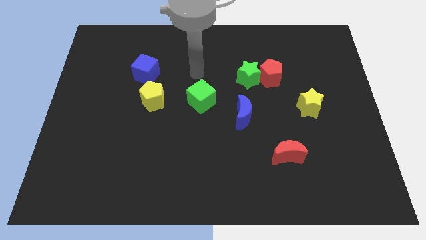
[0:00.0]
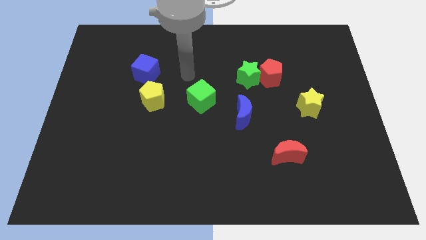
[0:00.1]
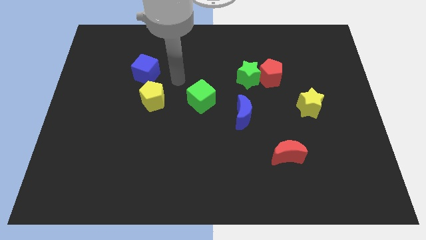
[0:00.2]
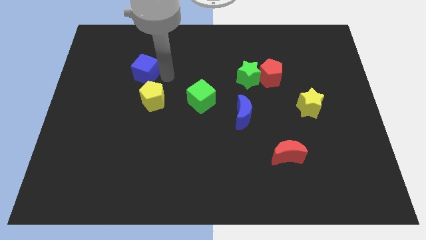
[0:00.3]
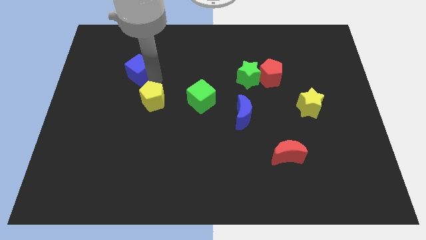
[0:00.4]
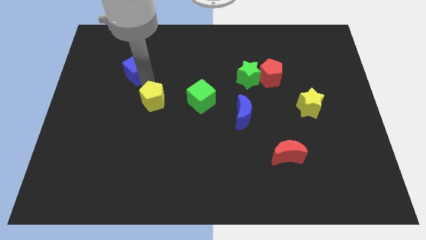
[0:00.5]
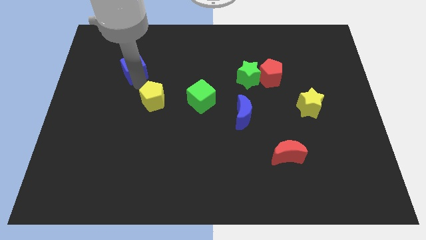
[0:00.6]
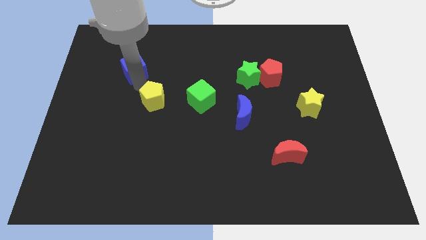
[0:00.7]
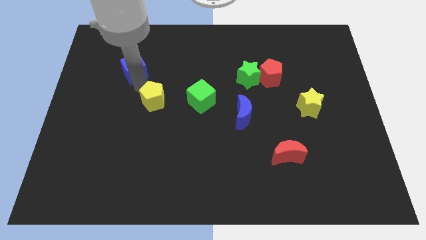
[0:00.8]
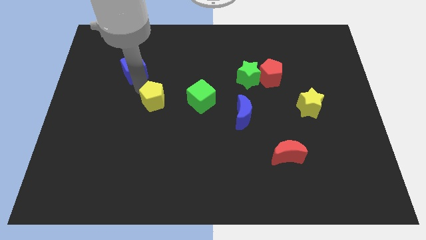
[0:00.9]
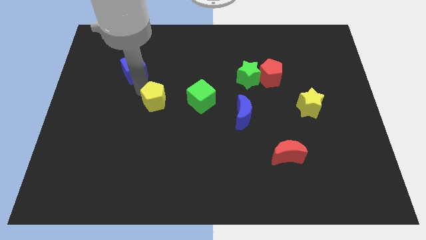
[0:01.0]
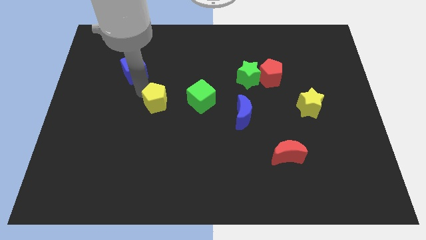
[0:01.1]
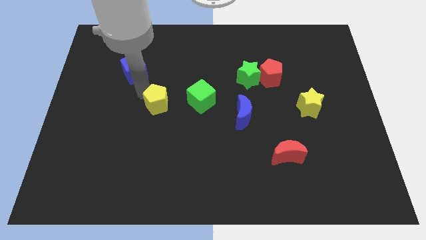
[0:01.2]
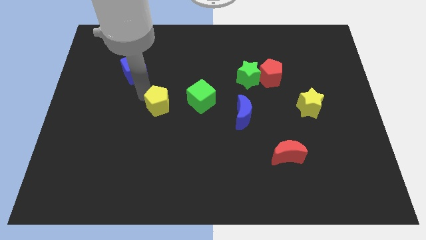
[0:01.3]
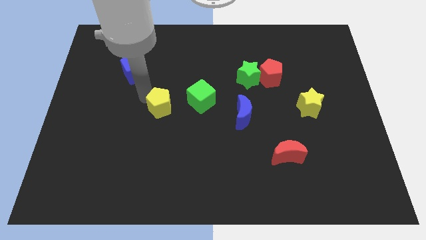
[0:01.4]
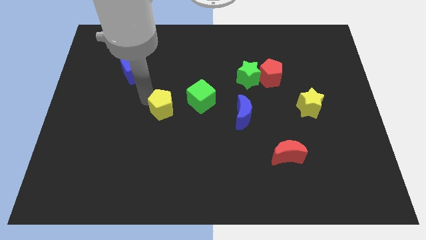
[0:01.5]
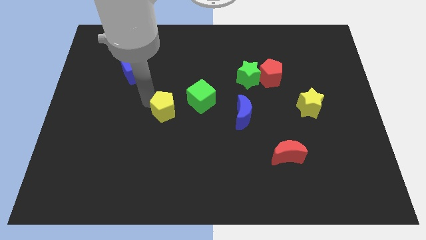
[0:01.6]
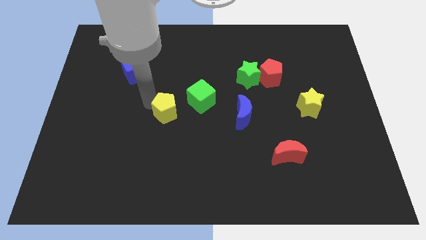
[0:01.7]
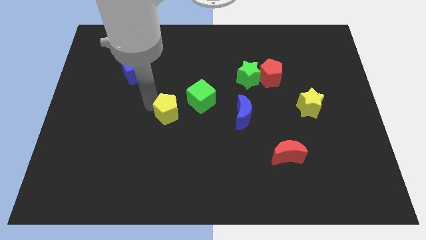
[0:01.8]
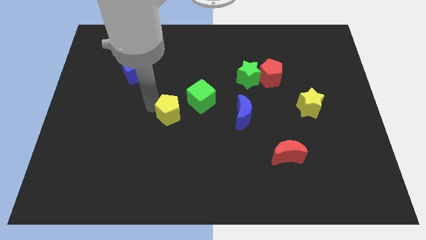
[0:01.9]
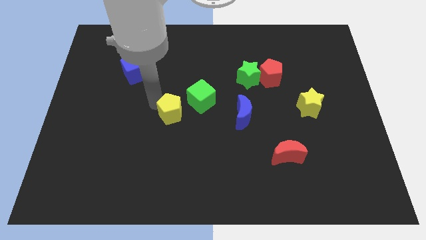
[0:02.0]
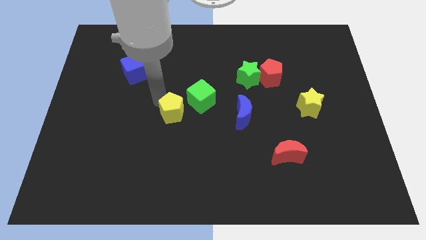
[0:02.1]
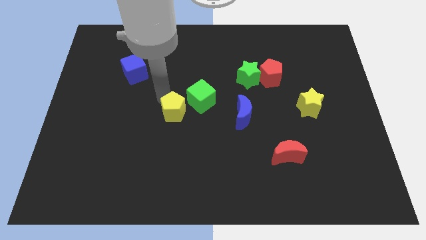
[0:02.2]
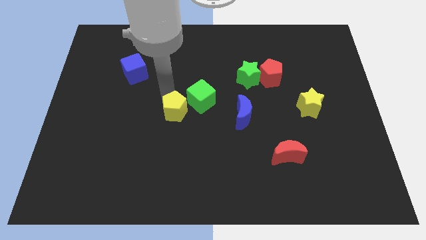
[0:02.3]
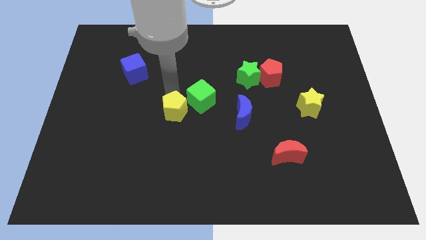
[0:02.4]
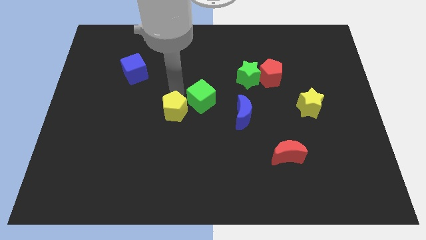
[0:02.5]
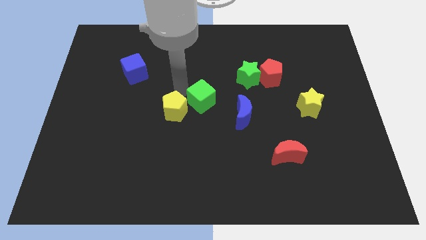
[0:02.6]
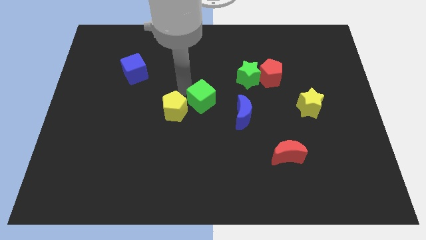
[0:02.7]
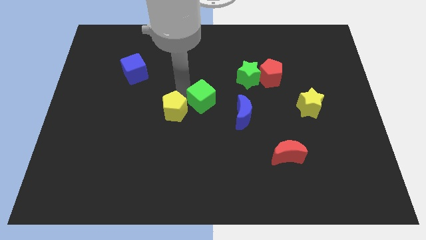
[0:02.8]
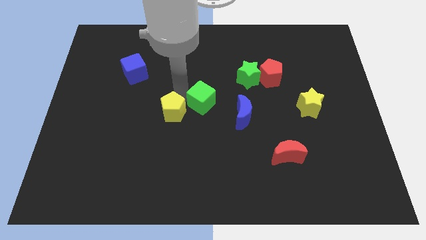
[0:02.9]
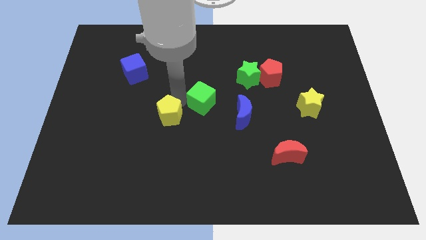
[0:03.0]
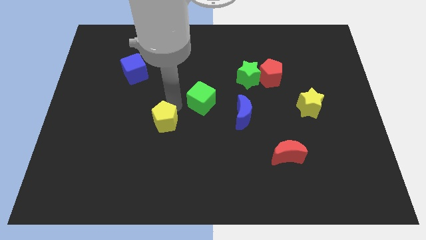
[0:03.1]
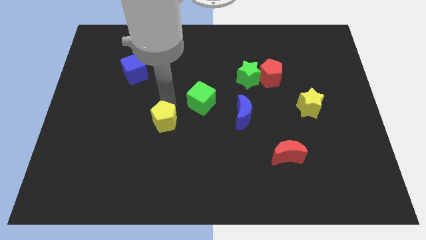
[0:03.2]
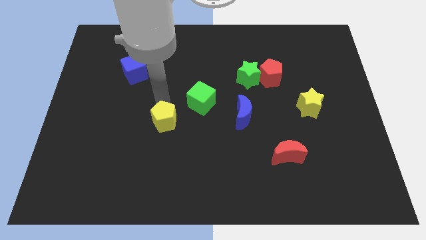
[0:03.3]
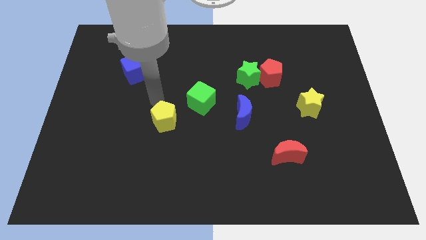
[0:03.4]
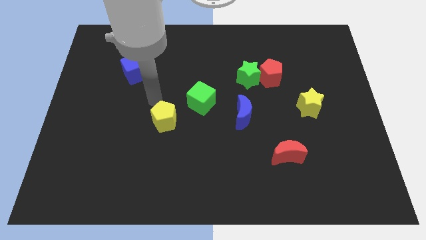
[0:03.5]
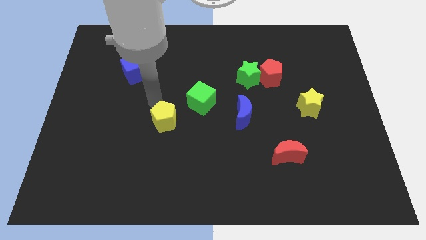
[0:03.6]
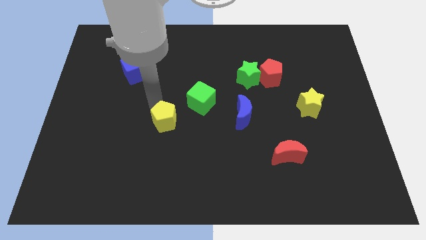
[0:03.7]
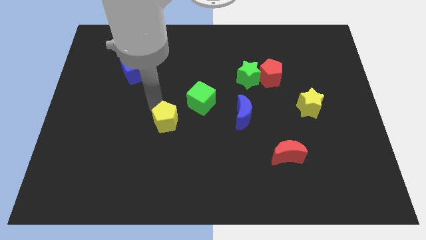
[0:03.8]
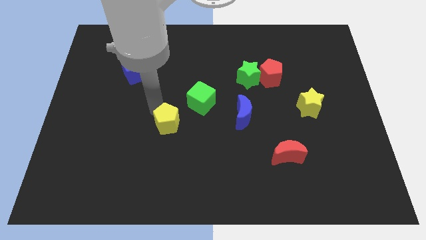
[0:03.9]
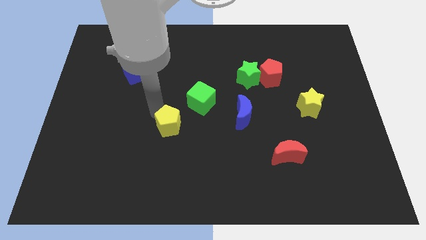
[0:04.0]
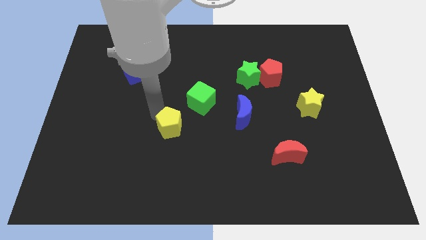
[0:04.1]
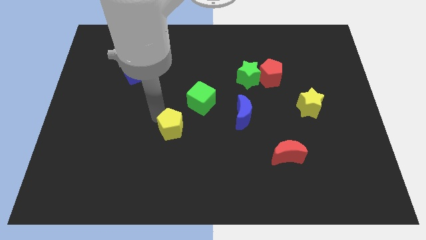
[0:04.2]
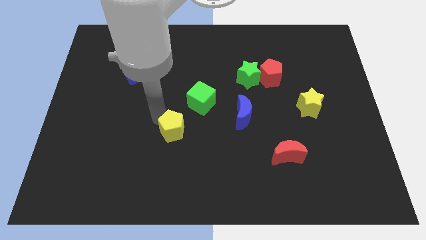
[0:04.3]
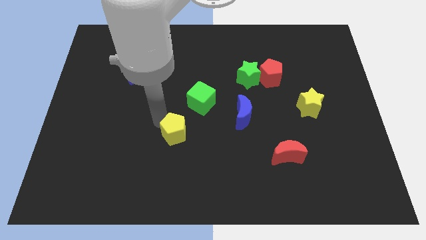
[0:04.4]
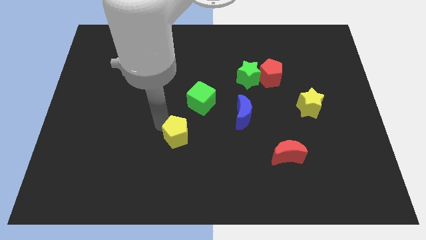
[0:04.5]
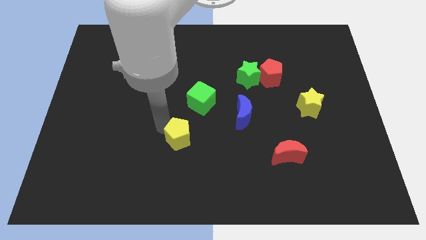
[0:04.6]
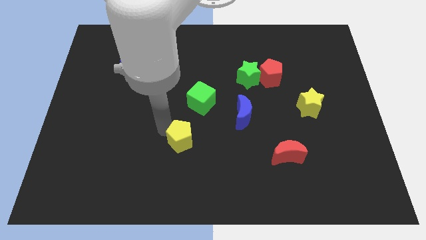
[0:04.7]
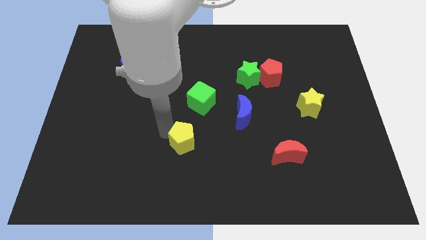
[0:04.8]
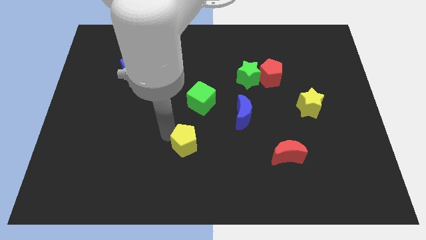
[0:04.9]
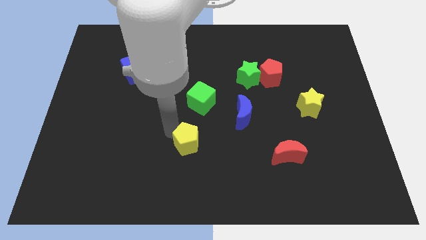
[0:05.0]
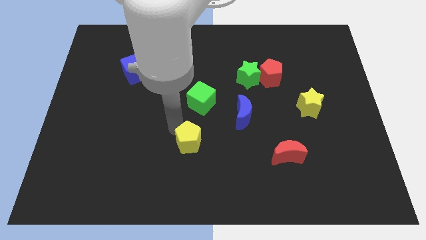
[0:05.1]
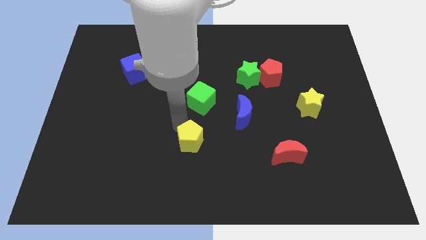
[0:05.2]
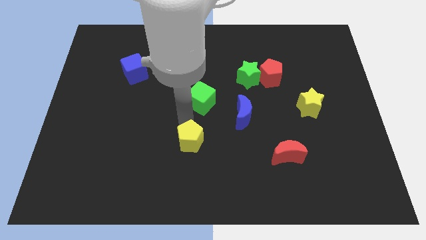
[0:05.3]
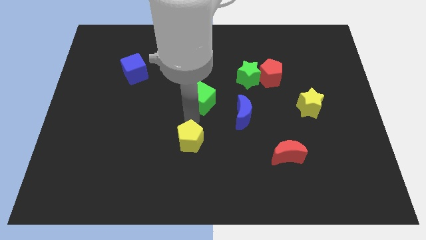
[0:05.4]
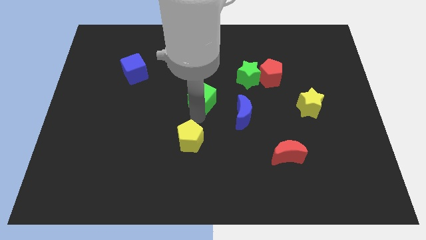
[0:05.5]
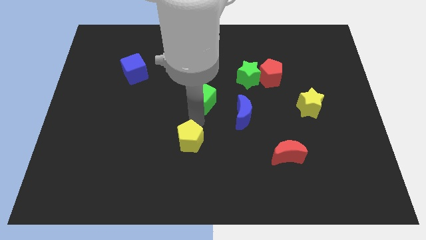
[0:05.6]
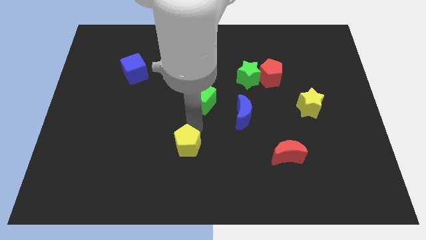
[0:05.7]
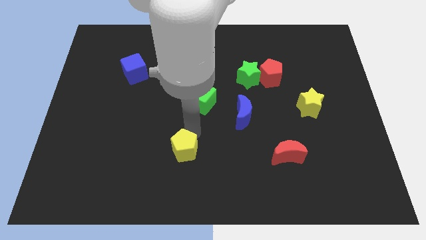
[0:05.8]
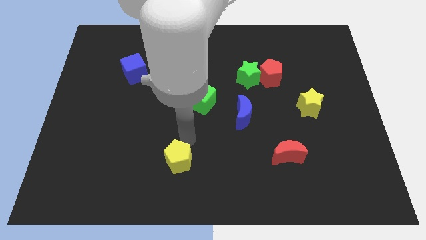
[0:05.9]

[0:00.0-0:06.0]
push the yellow pentagon to the bottom
